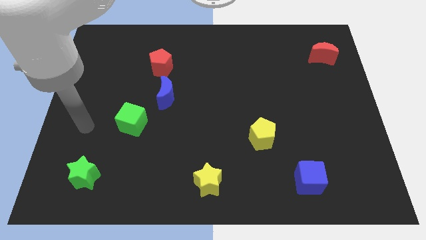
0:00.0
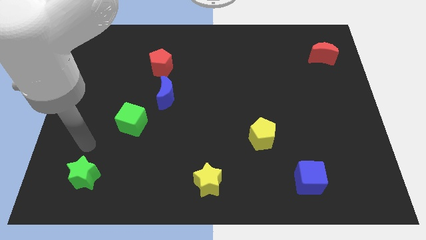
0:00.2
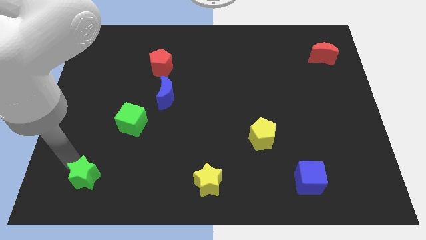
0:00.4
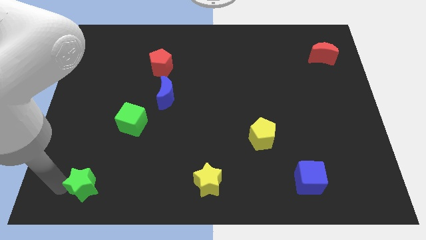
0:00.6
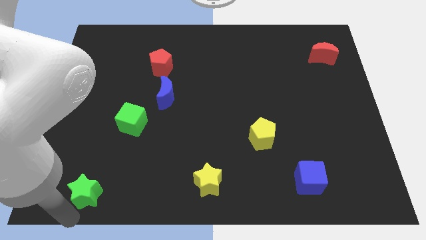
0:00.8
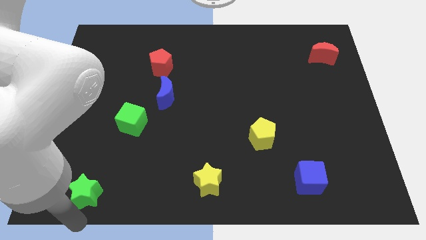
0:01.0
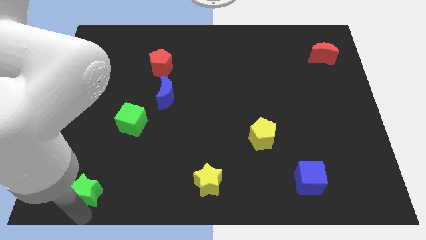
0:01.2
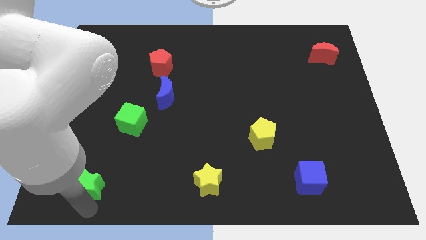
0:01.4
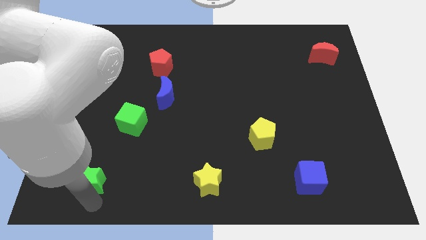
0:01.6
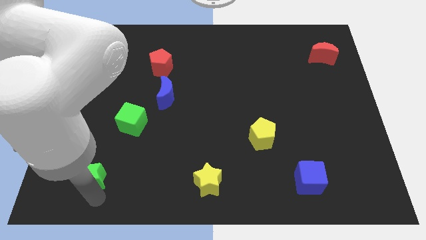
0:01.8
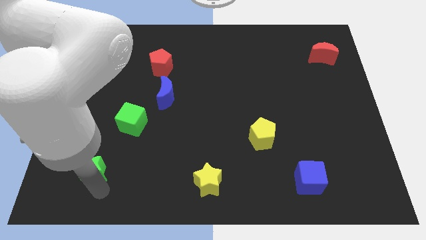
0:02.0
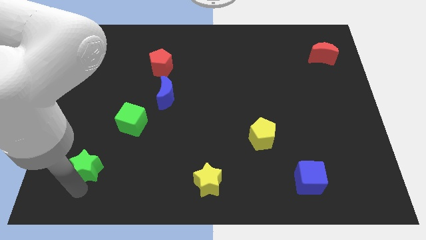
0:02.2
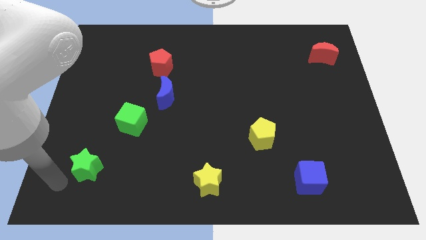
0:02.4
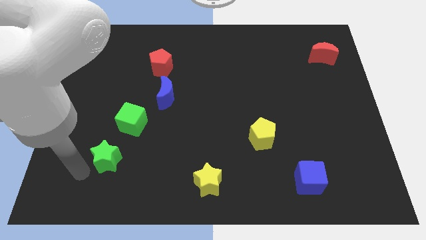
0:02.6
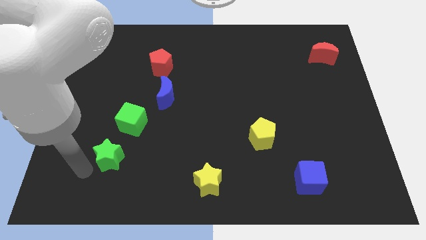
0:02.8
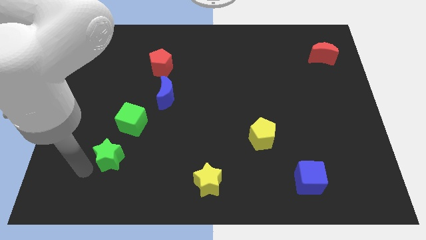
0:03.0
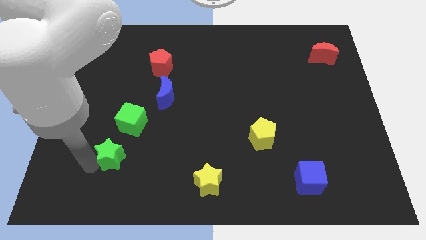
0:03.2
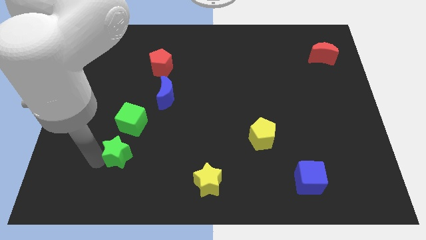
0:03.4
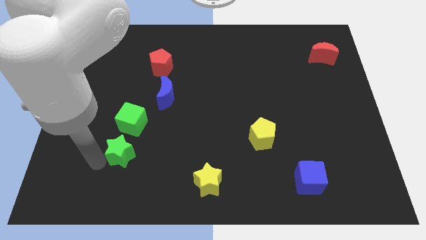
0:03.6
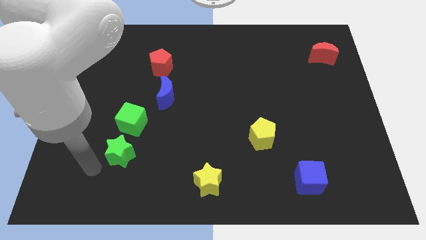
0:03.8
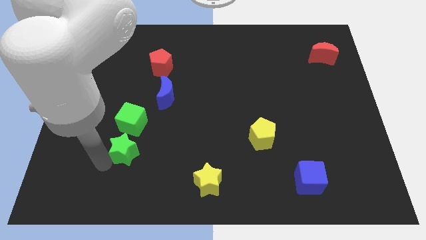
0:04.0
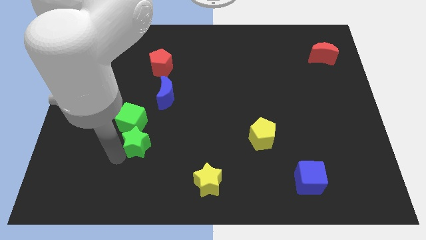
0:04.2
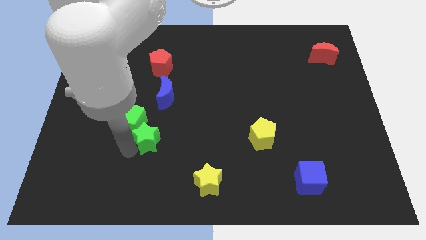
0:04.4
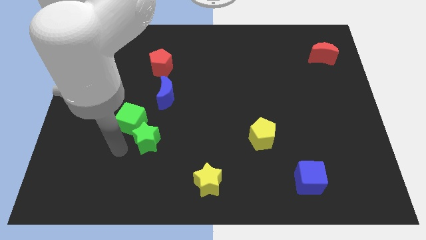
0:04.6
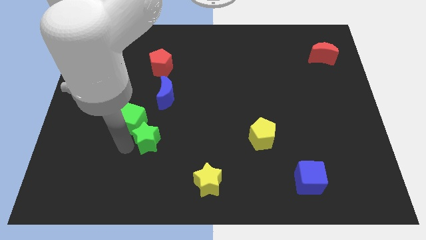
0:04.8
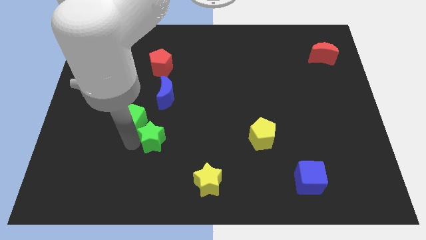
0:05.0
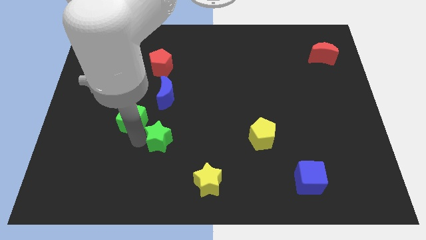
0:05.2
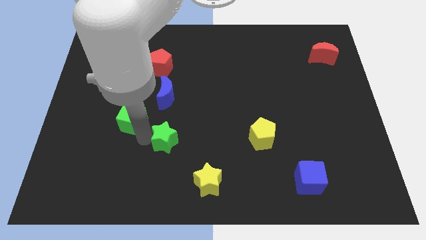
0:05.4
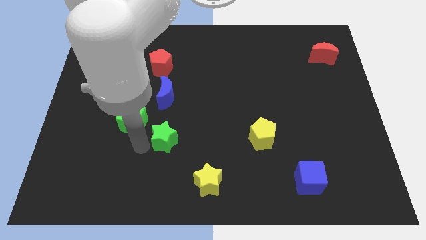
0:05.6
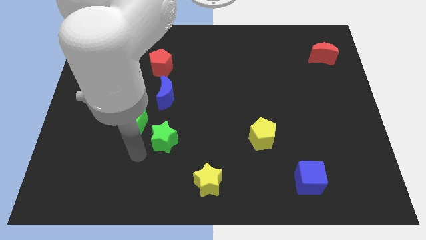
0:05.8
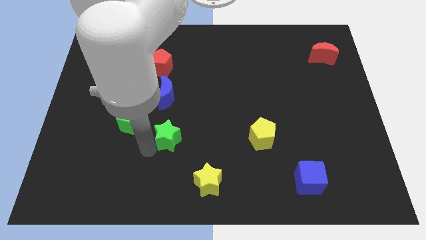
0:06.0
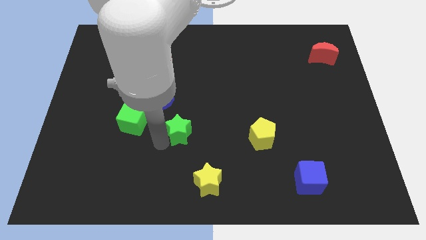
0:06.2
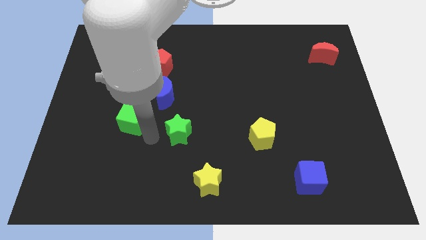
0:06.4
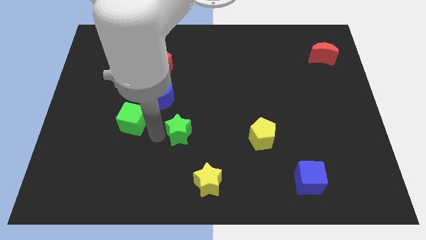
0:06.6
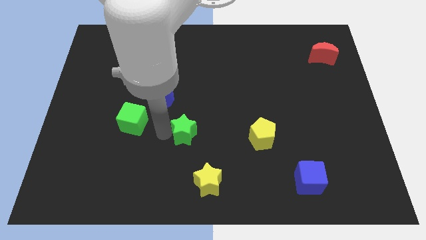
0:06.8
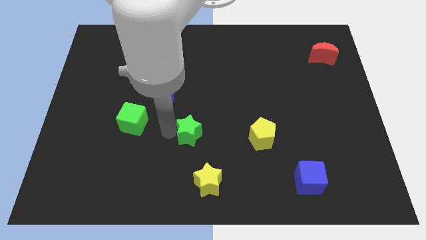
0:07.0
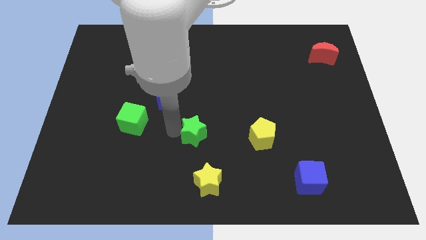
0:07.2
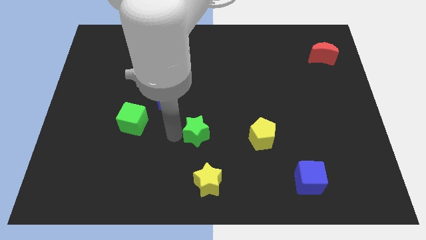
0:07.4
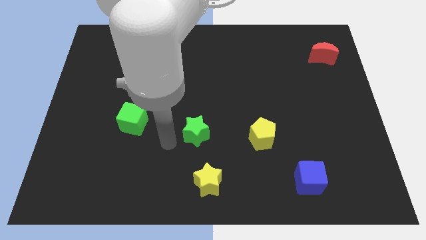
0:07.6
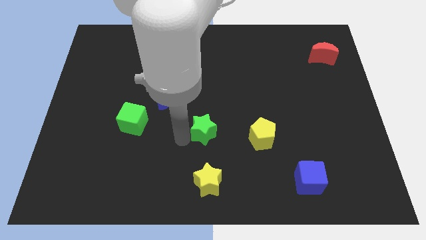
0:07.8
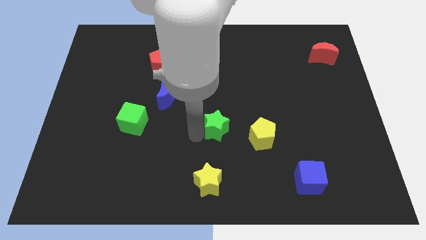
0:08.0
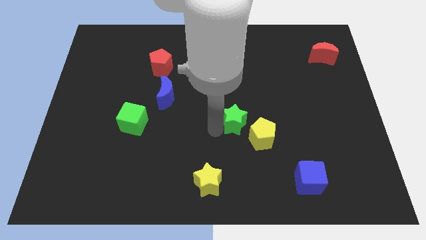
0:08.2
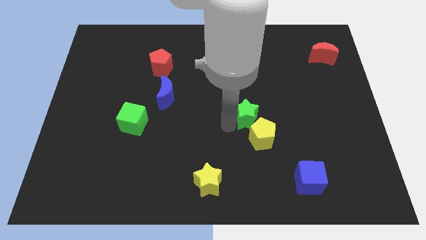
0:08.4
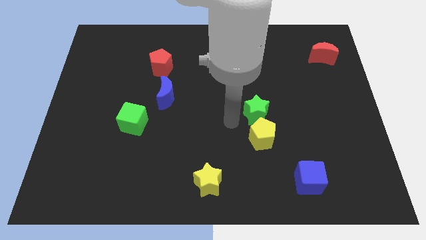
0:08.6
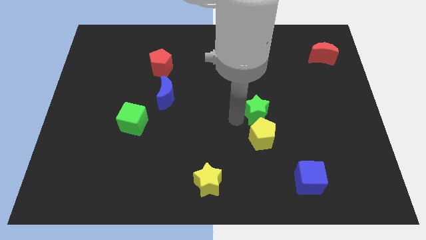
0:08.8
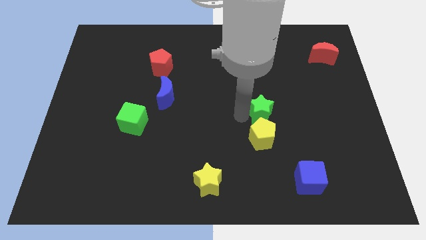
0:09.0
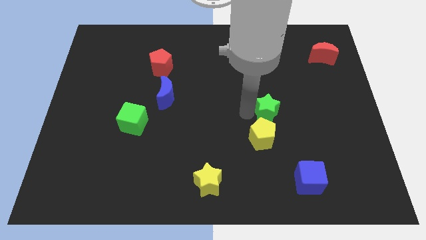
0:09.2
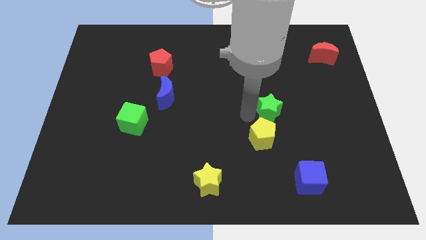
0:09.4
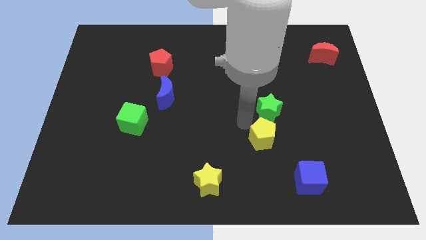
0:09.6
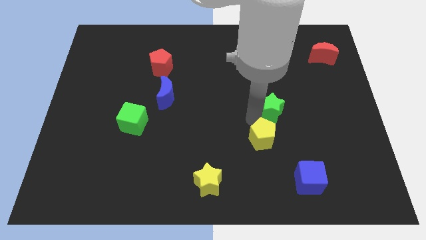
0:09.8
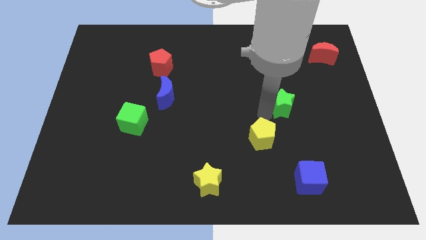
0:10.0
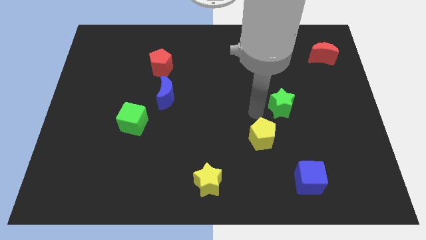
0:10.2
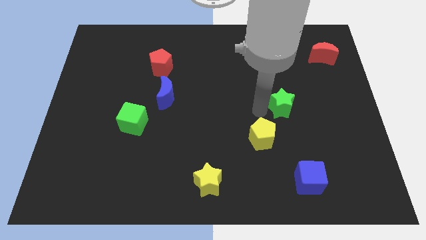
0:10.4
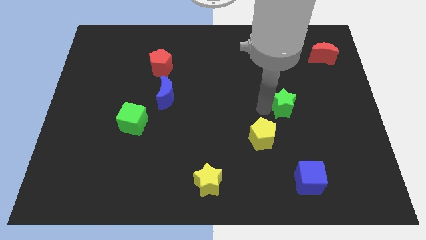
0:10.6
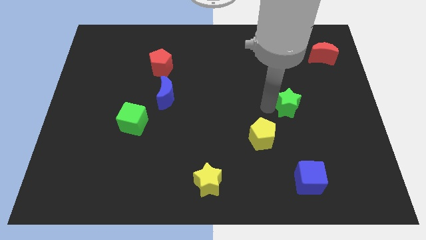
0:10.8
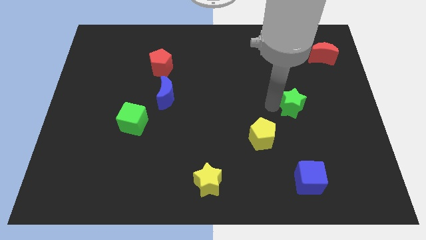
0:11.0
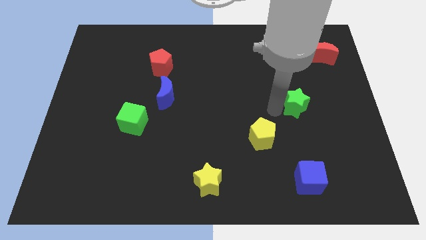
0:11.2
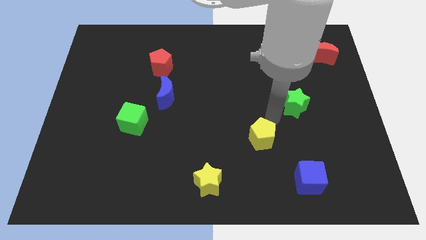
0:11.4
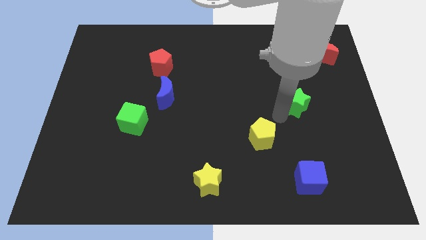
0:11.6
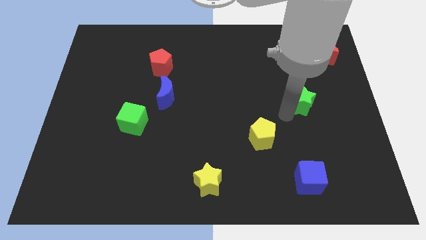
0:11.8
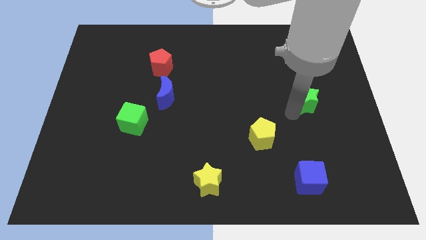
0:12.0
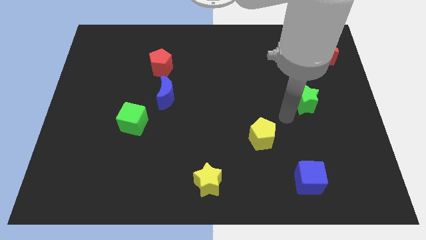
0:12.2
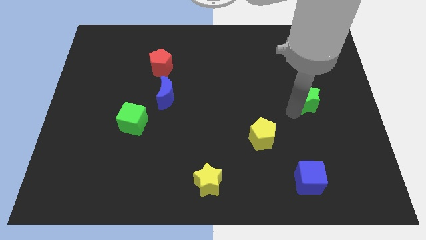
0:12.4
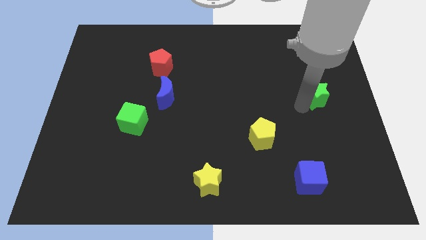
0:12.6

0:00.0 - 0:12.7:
push the green star below the red moon

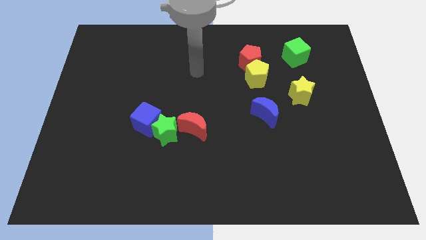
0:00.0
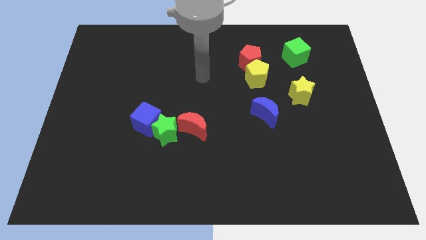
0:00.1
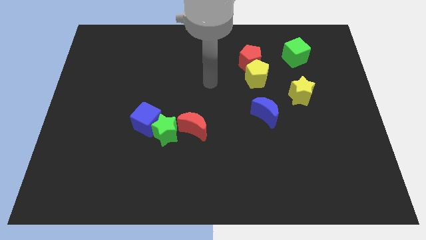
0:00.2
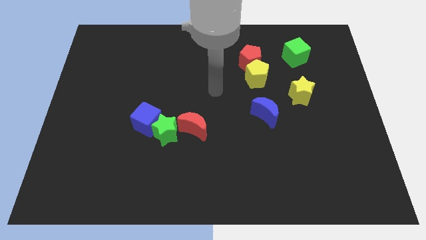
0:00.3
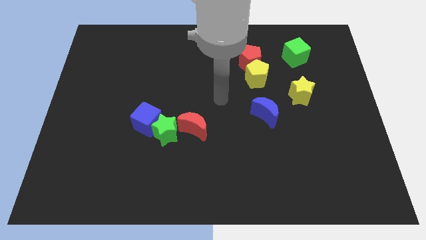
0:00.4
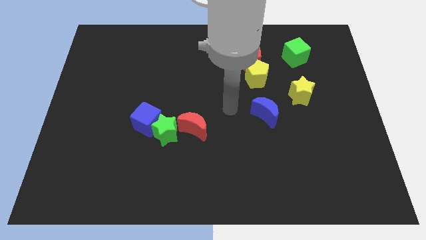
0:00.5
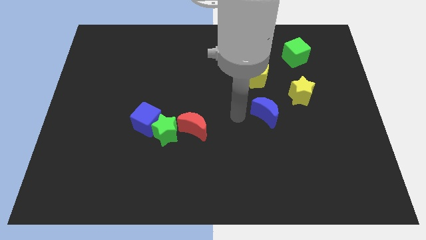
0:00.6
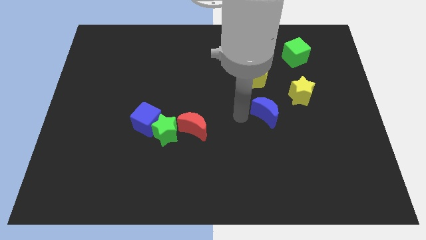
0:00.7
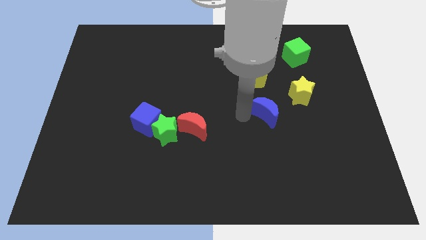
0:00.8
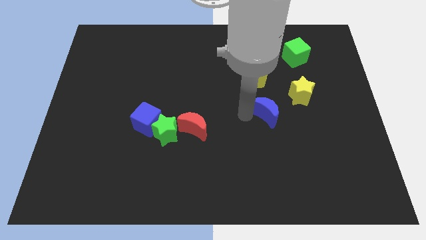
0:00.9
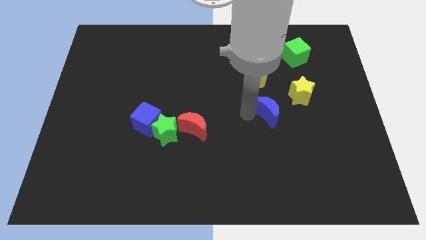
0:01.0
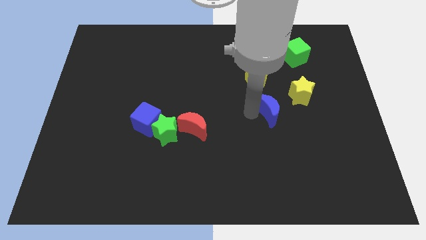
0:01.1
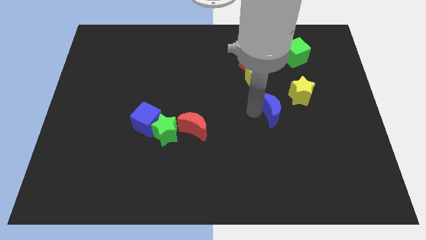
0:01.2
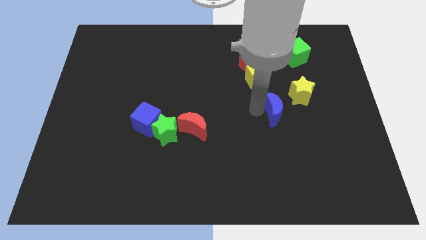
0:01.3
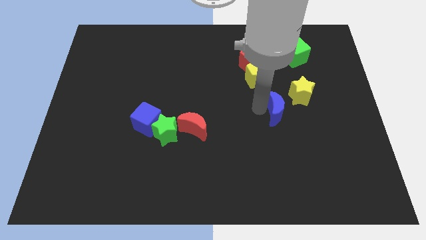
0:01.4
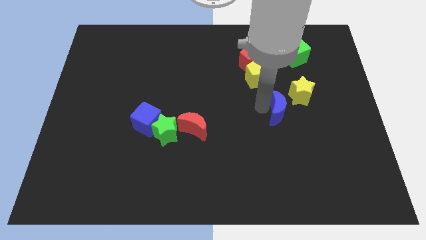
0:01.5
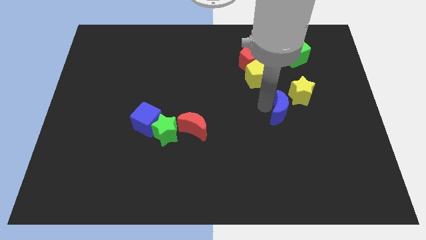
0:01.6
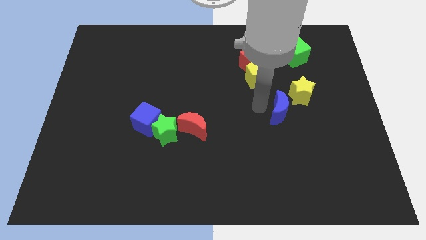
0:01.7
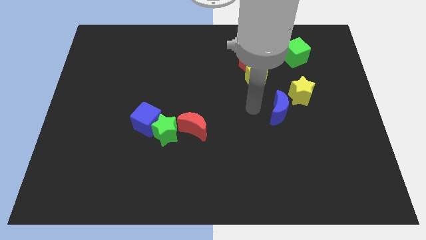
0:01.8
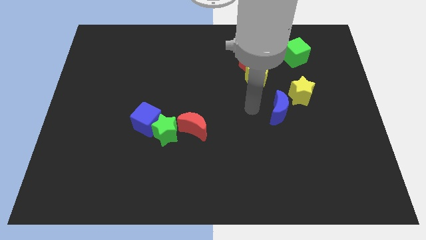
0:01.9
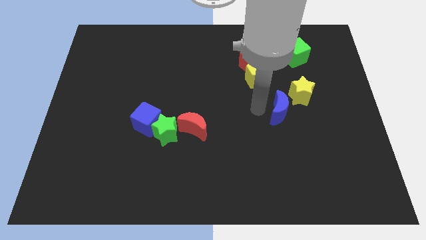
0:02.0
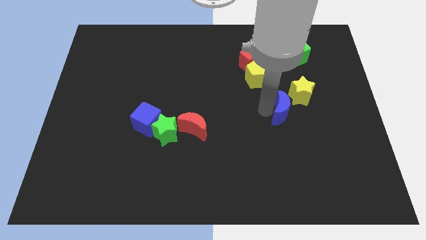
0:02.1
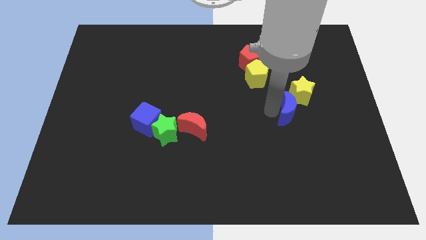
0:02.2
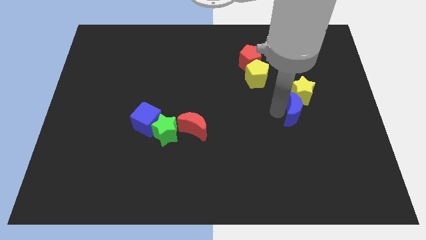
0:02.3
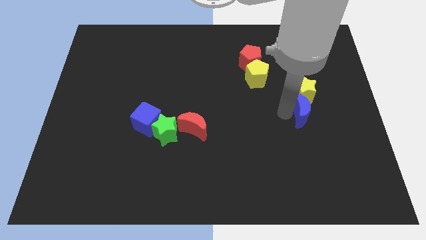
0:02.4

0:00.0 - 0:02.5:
slide the blue moon to the bottom right of the yellow star
